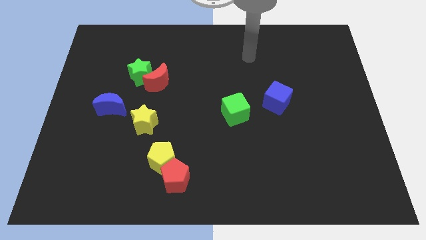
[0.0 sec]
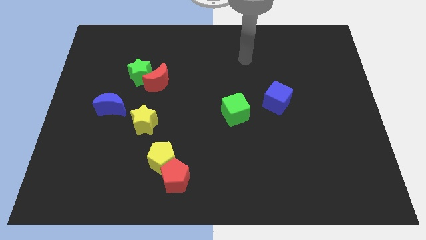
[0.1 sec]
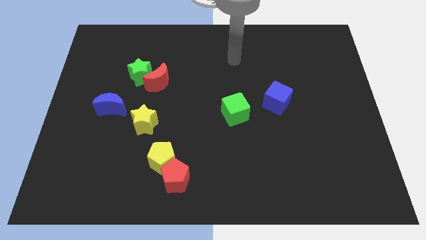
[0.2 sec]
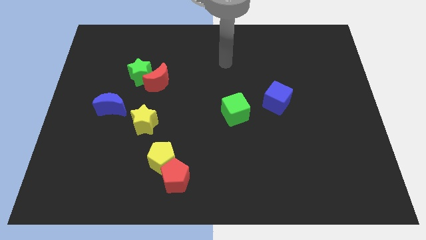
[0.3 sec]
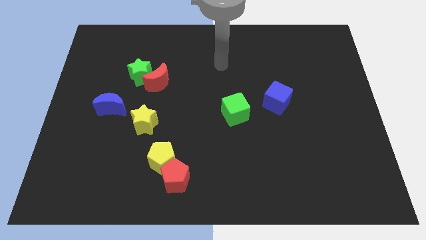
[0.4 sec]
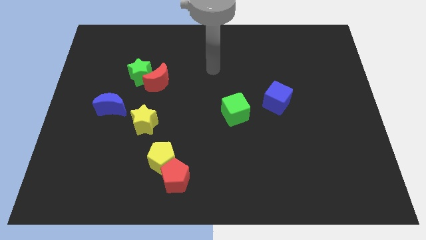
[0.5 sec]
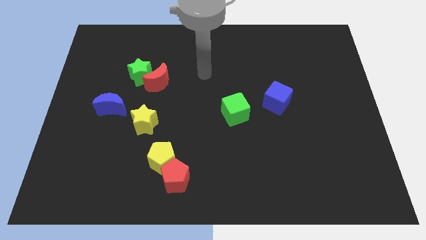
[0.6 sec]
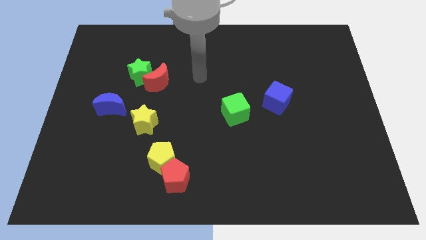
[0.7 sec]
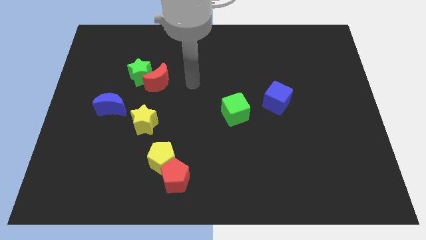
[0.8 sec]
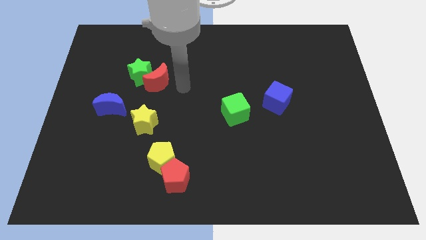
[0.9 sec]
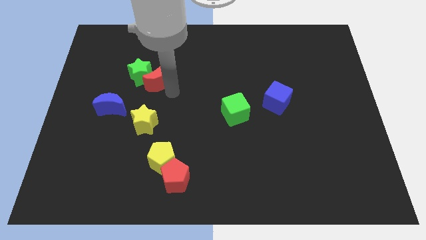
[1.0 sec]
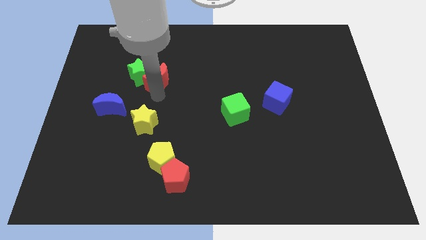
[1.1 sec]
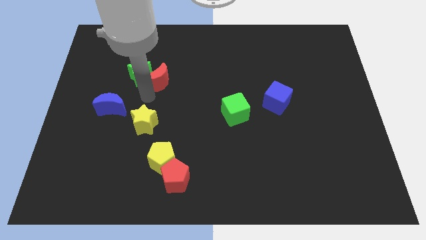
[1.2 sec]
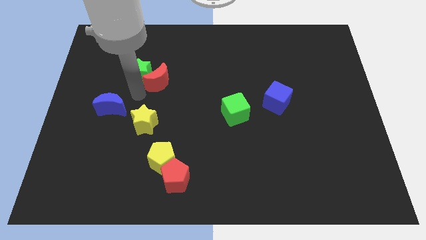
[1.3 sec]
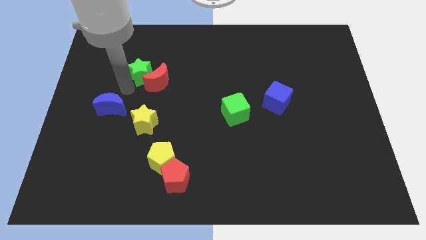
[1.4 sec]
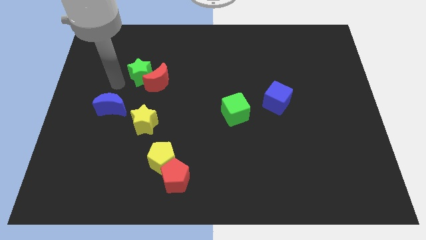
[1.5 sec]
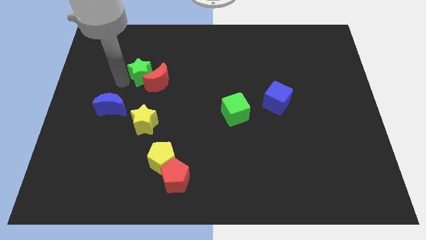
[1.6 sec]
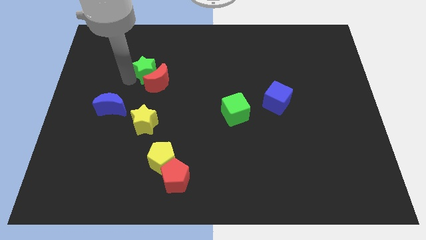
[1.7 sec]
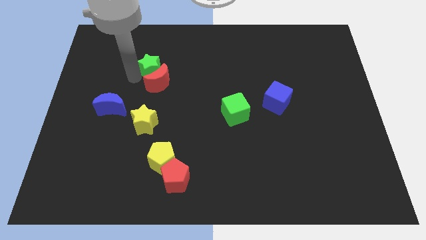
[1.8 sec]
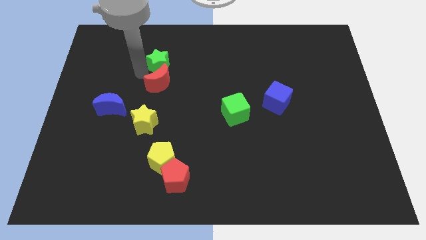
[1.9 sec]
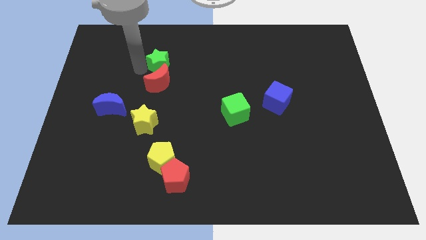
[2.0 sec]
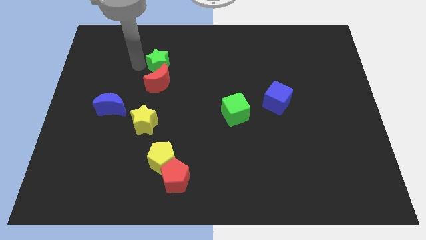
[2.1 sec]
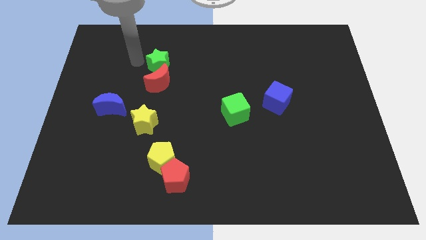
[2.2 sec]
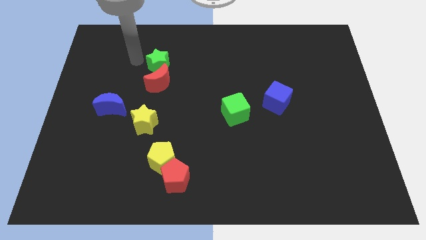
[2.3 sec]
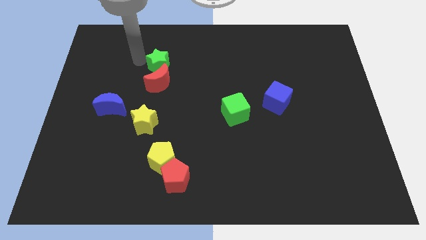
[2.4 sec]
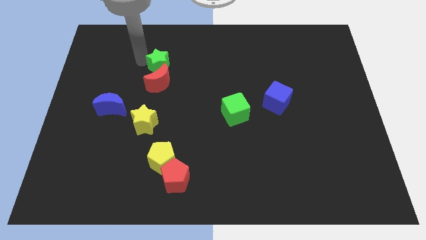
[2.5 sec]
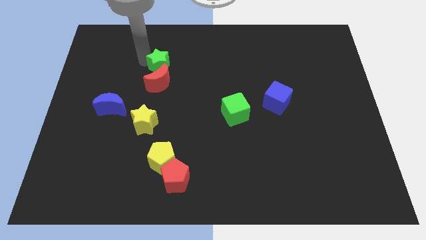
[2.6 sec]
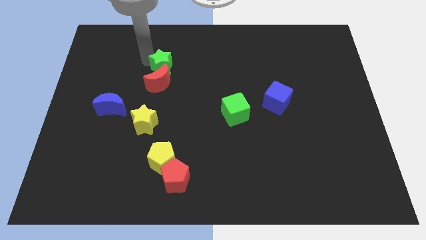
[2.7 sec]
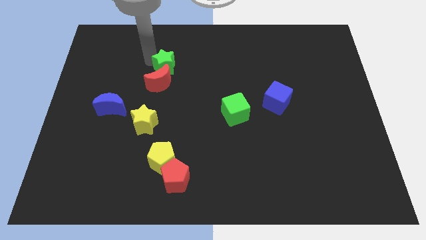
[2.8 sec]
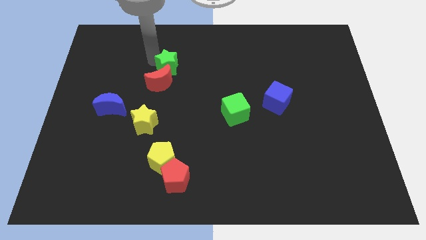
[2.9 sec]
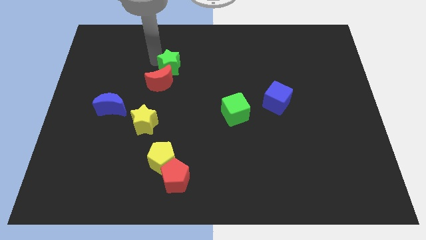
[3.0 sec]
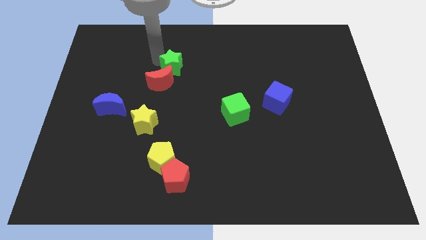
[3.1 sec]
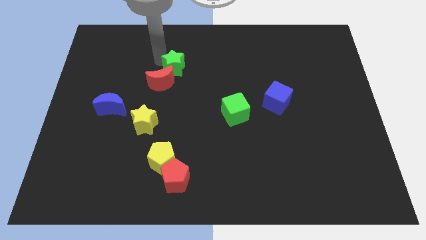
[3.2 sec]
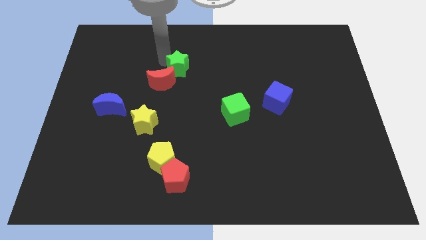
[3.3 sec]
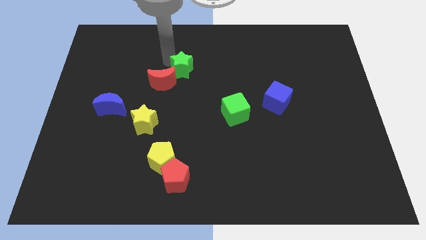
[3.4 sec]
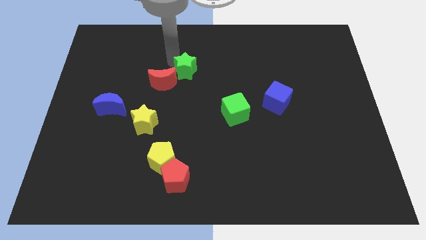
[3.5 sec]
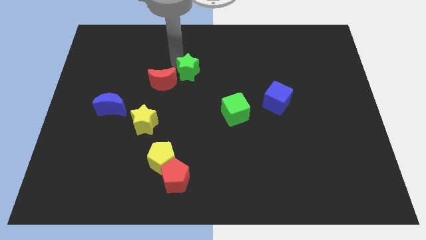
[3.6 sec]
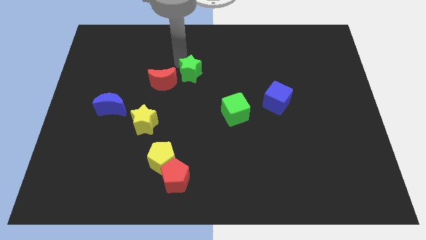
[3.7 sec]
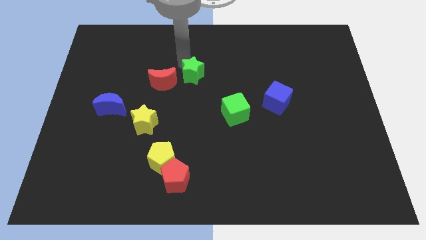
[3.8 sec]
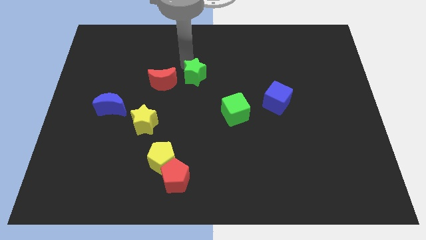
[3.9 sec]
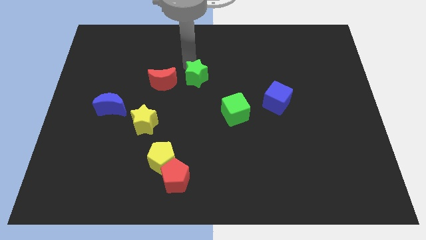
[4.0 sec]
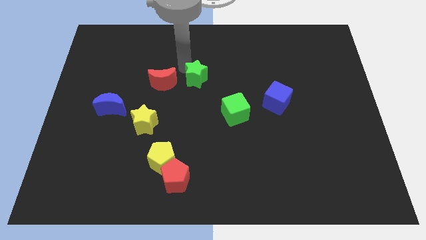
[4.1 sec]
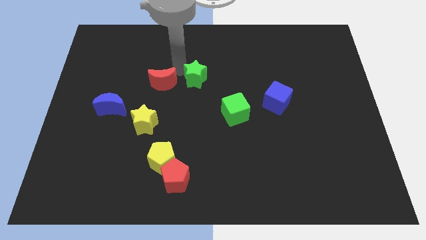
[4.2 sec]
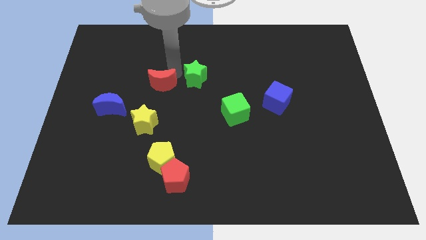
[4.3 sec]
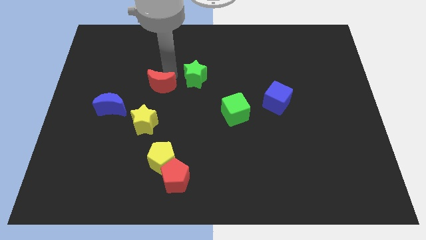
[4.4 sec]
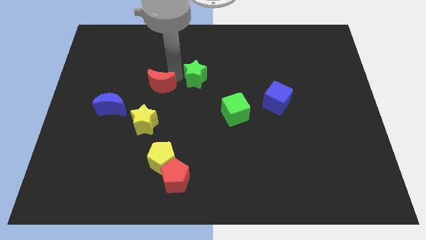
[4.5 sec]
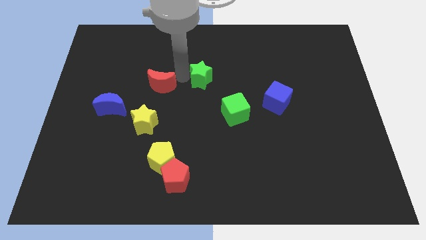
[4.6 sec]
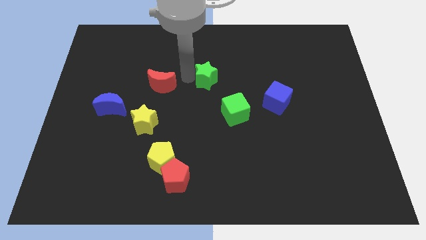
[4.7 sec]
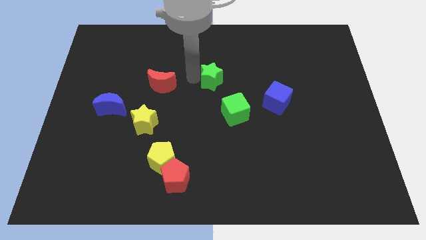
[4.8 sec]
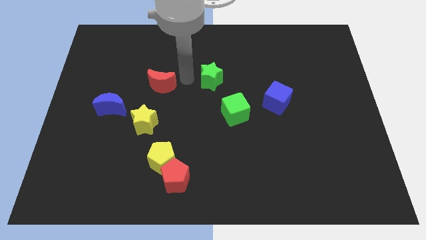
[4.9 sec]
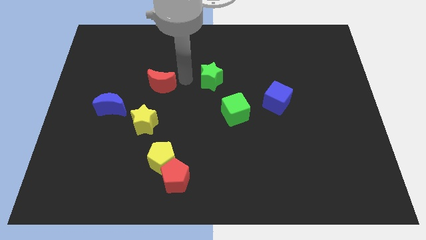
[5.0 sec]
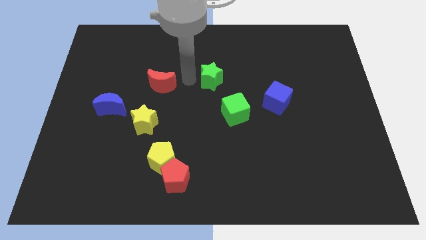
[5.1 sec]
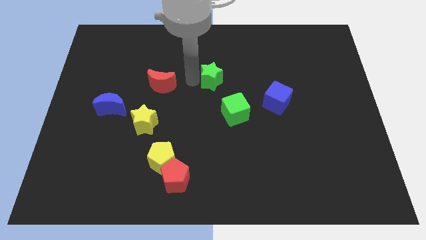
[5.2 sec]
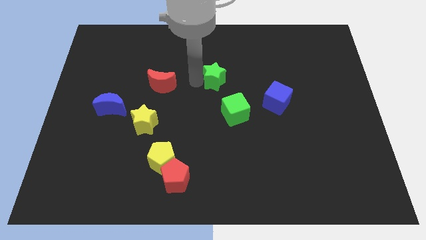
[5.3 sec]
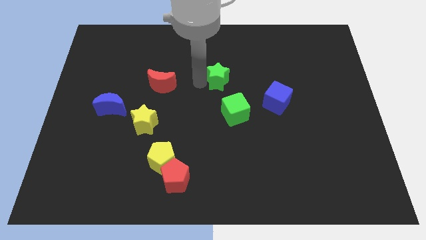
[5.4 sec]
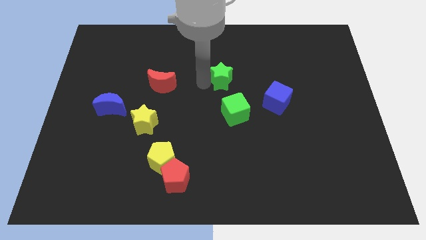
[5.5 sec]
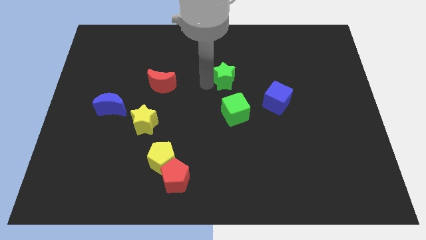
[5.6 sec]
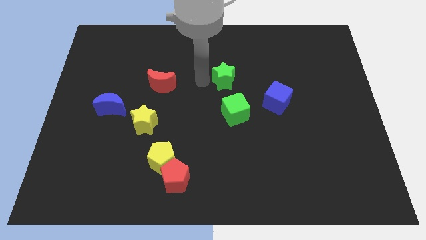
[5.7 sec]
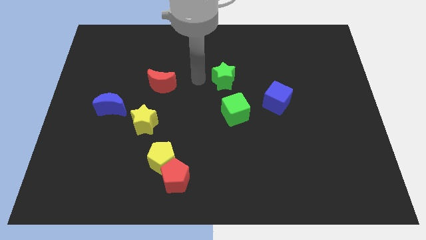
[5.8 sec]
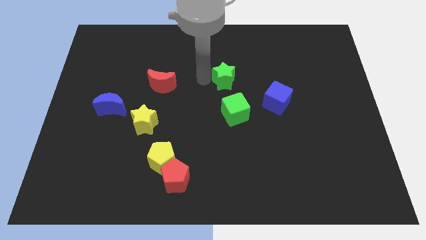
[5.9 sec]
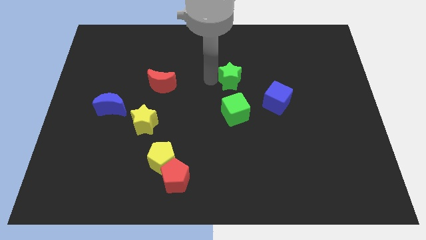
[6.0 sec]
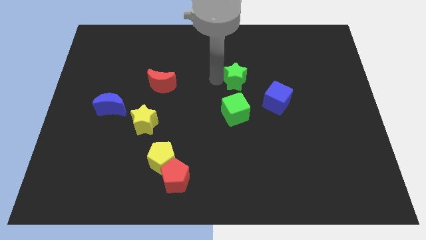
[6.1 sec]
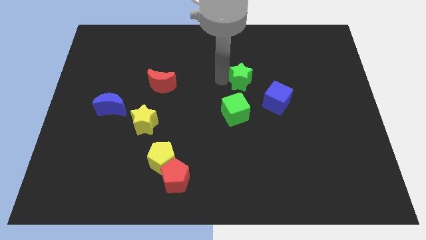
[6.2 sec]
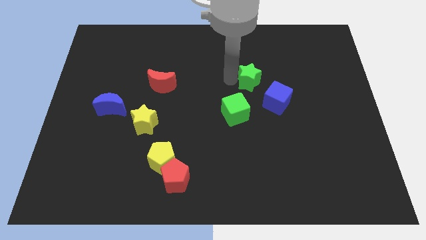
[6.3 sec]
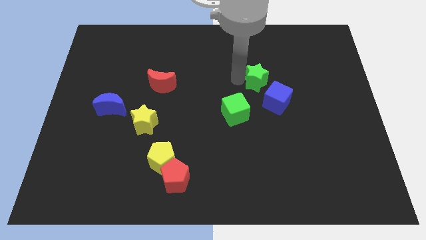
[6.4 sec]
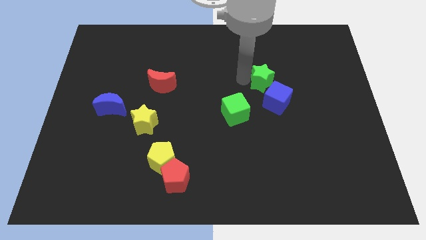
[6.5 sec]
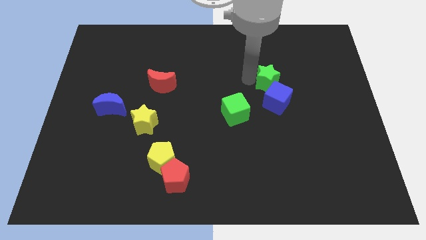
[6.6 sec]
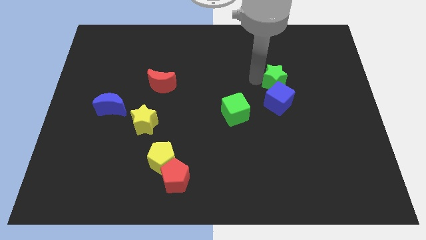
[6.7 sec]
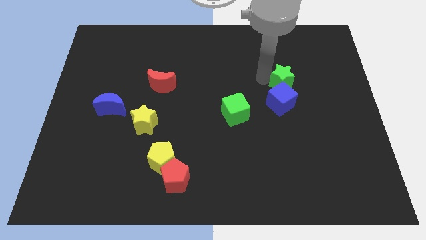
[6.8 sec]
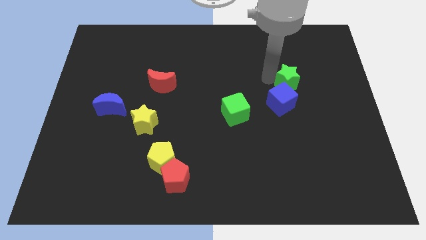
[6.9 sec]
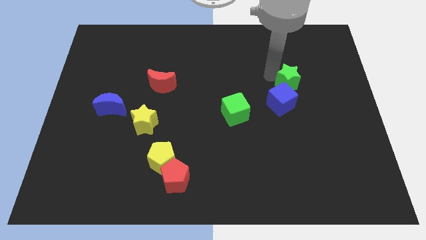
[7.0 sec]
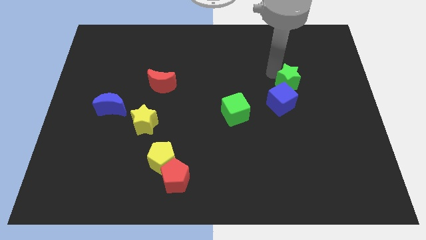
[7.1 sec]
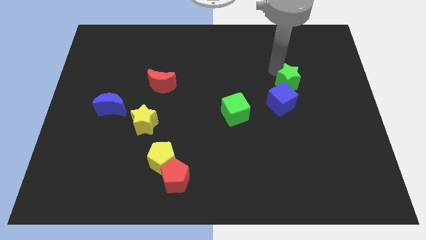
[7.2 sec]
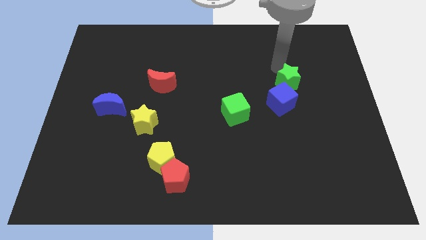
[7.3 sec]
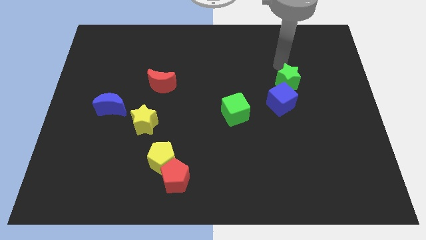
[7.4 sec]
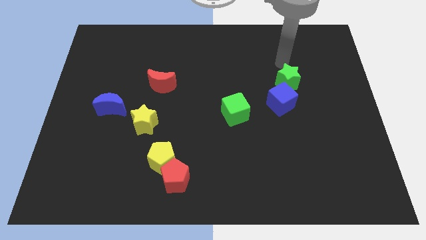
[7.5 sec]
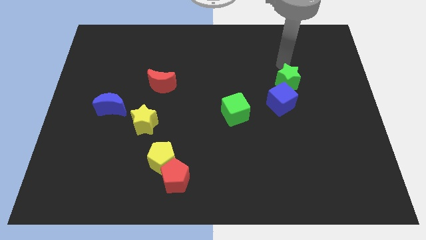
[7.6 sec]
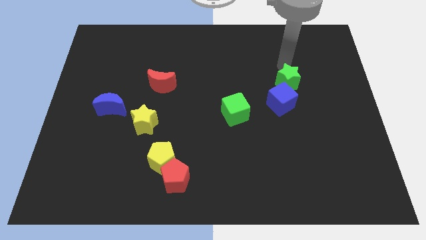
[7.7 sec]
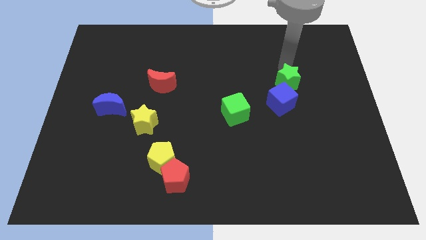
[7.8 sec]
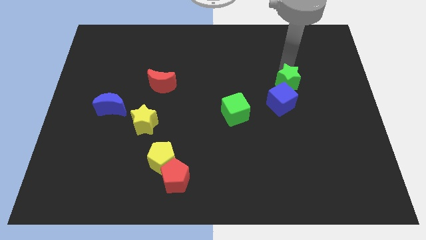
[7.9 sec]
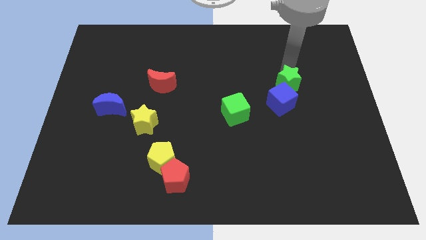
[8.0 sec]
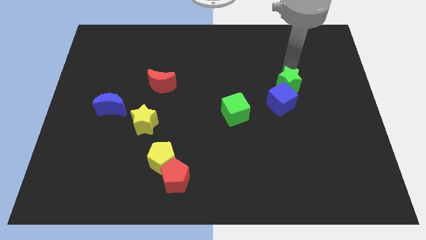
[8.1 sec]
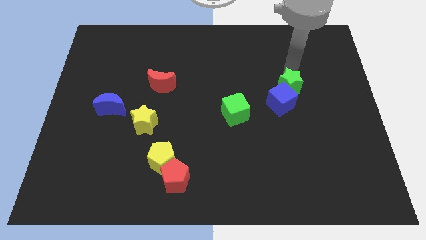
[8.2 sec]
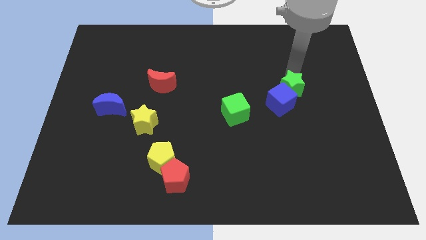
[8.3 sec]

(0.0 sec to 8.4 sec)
move the green star to the right side of the blue cube

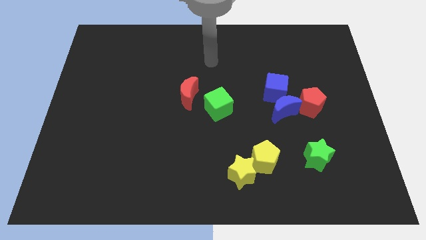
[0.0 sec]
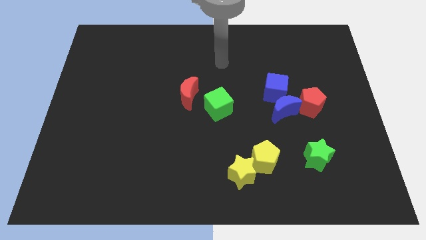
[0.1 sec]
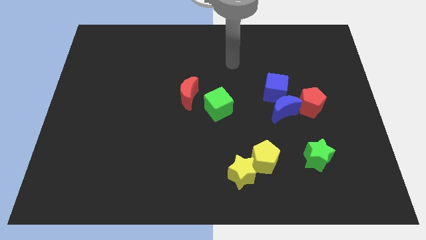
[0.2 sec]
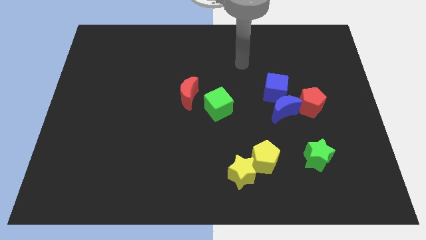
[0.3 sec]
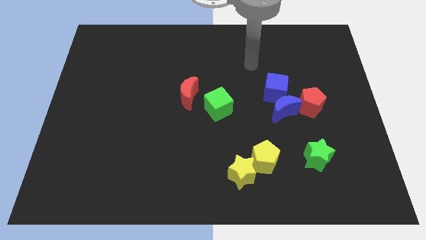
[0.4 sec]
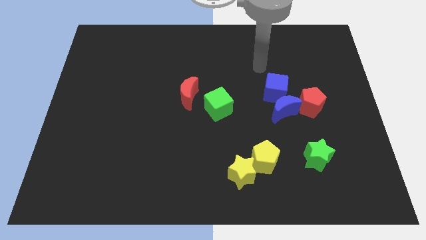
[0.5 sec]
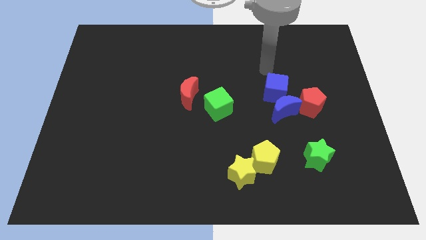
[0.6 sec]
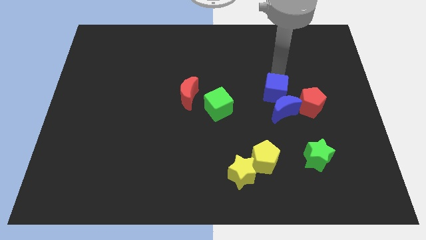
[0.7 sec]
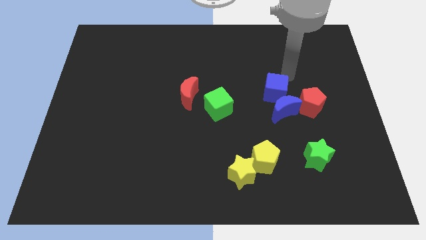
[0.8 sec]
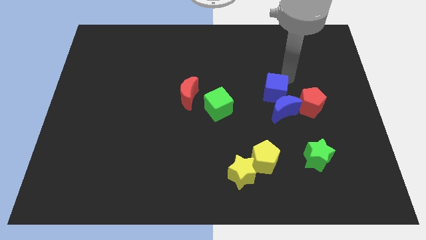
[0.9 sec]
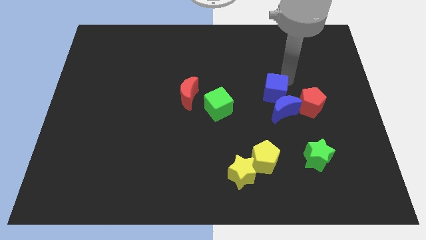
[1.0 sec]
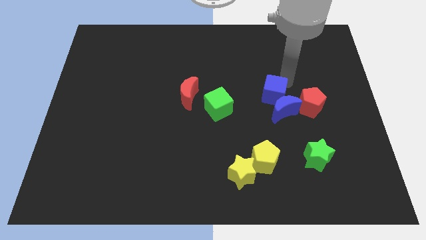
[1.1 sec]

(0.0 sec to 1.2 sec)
put the blue cube just right of the green cube
